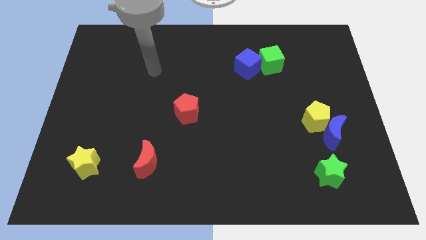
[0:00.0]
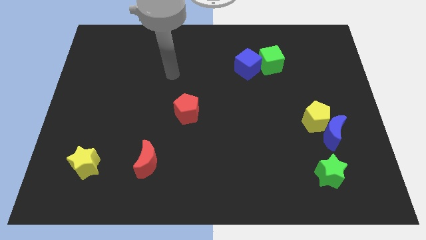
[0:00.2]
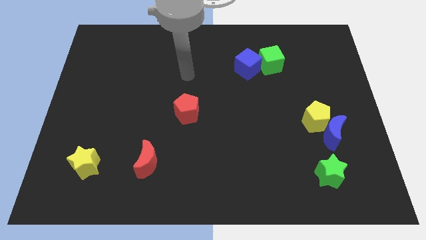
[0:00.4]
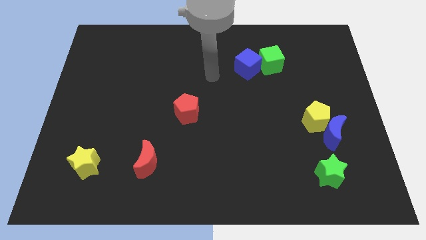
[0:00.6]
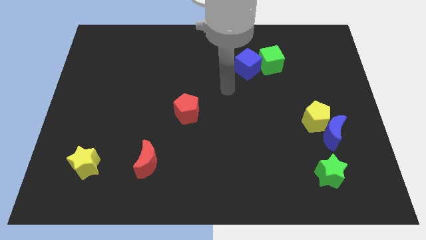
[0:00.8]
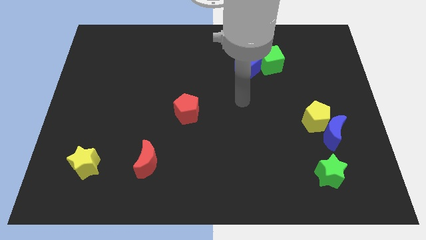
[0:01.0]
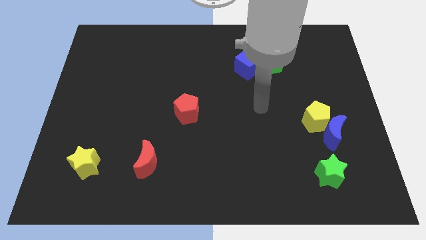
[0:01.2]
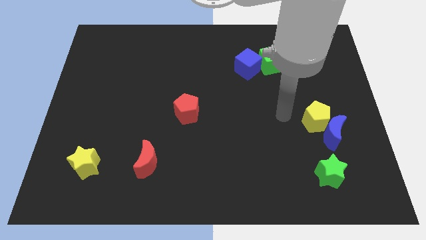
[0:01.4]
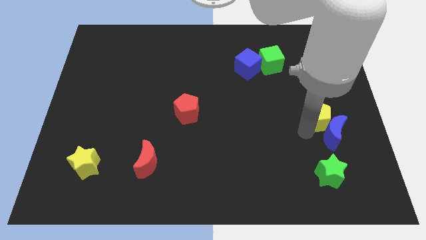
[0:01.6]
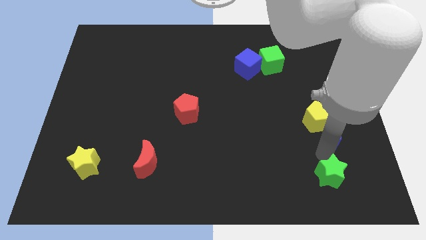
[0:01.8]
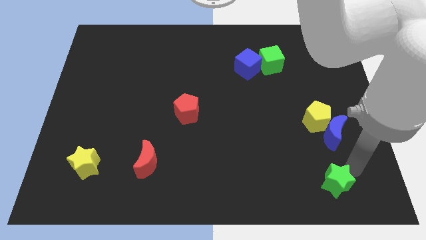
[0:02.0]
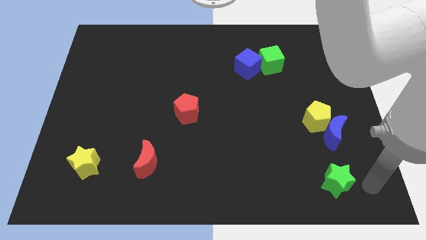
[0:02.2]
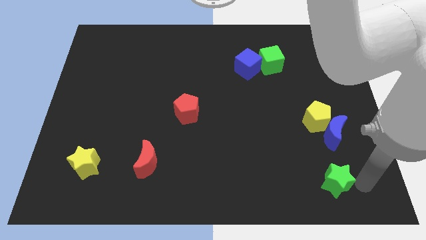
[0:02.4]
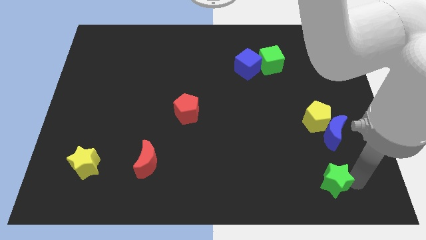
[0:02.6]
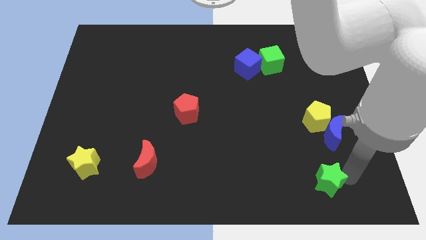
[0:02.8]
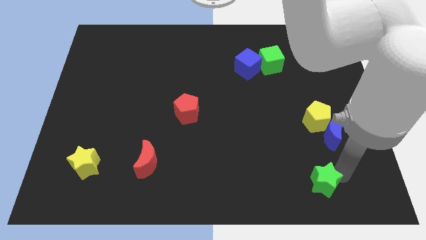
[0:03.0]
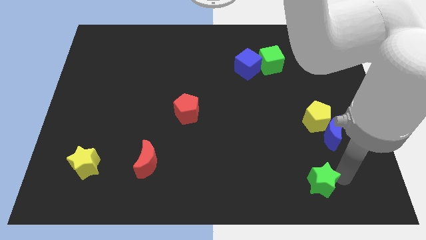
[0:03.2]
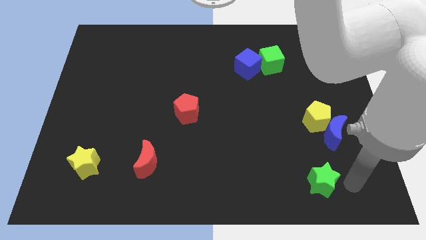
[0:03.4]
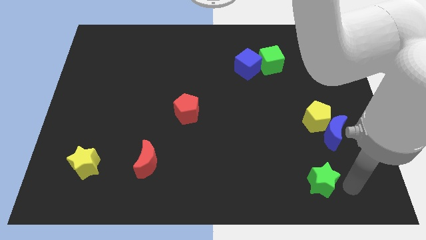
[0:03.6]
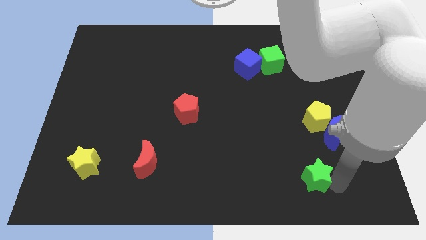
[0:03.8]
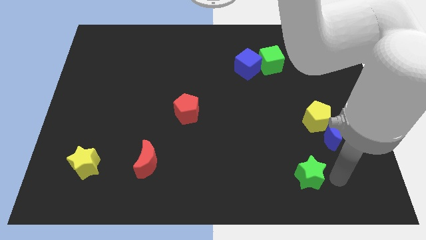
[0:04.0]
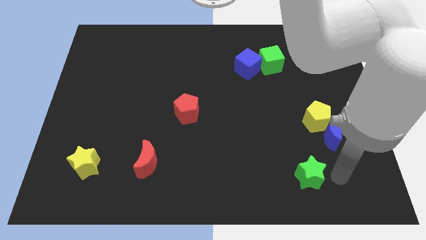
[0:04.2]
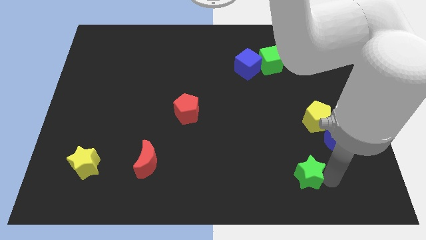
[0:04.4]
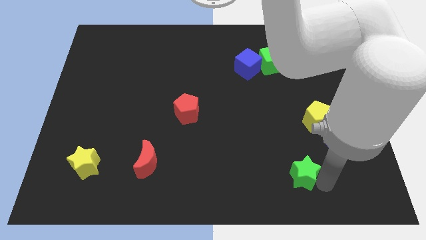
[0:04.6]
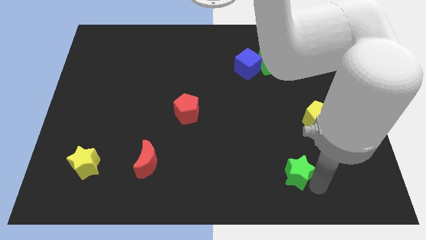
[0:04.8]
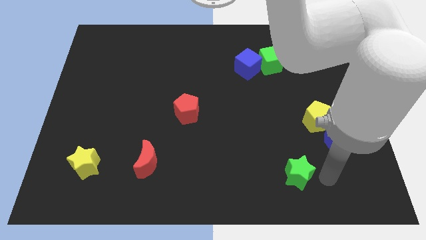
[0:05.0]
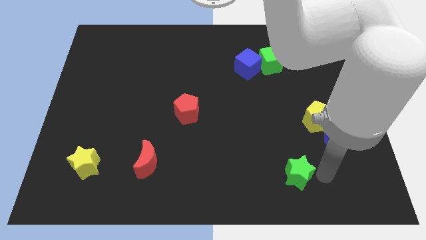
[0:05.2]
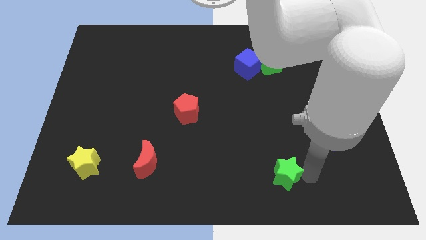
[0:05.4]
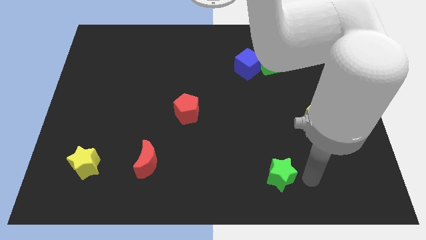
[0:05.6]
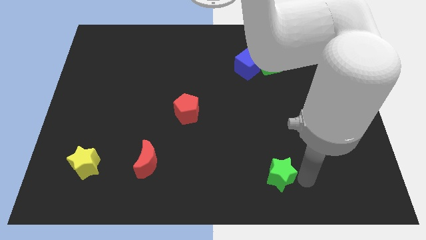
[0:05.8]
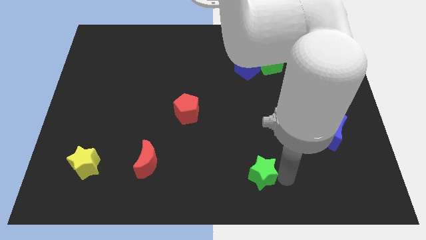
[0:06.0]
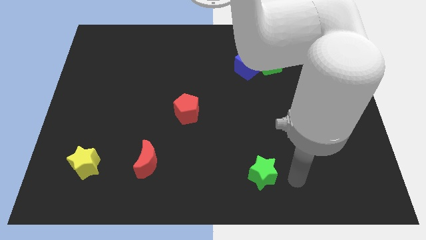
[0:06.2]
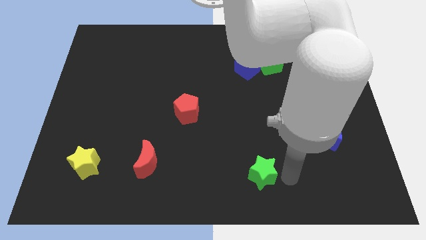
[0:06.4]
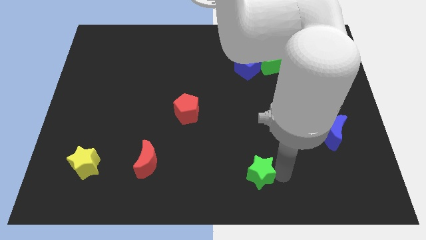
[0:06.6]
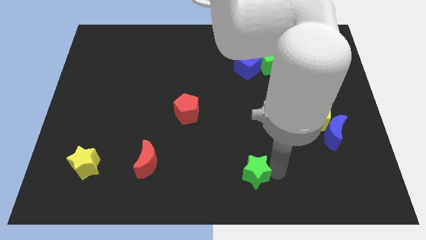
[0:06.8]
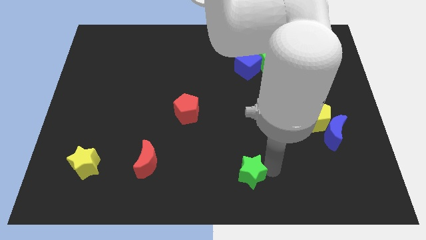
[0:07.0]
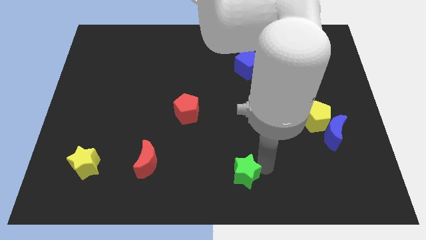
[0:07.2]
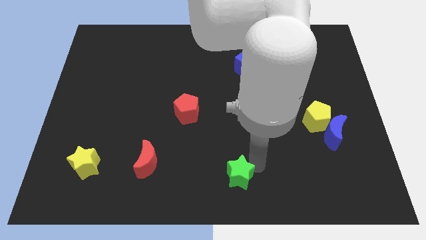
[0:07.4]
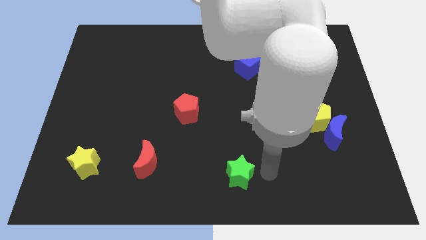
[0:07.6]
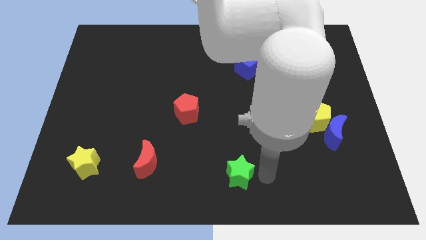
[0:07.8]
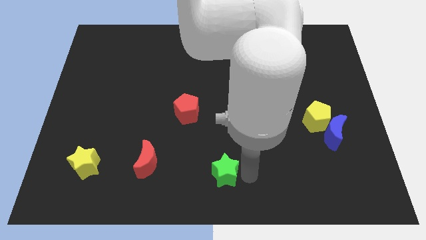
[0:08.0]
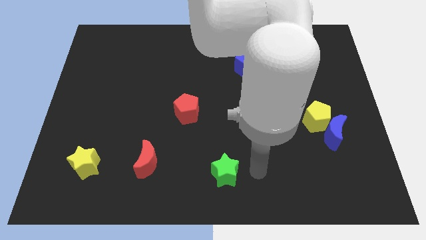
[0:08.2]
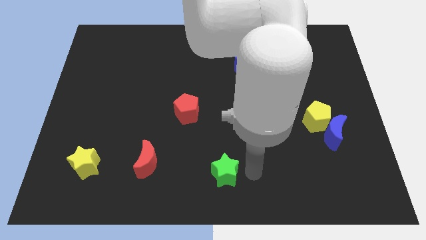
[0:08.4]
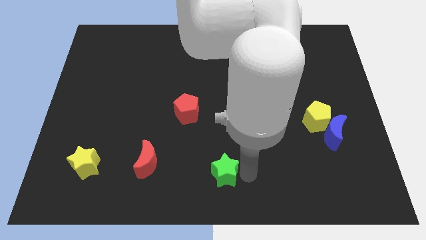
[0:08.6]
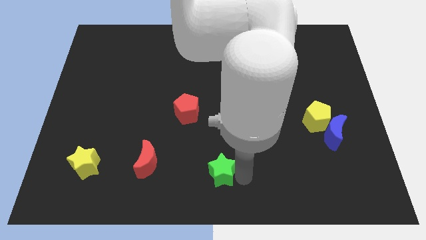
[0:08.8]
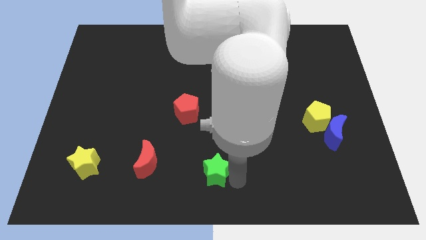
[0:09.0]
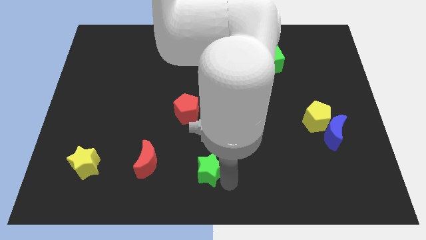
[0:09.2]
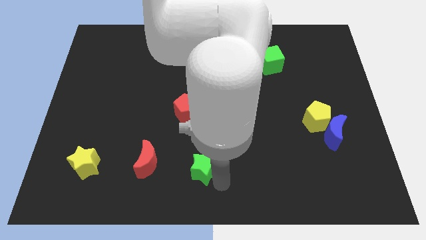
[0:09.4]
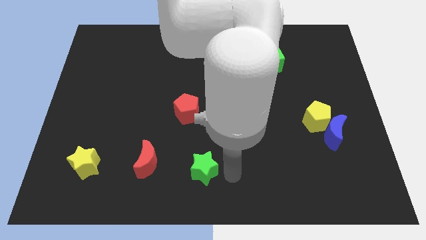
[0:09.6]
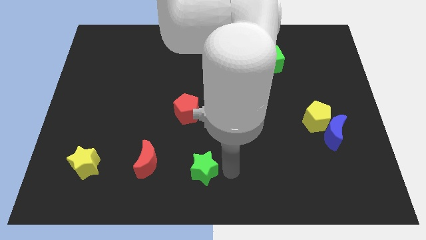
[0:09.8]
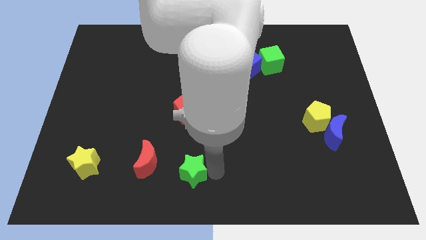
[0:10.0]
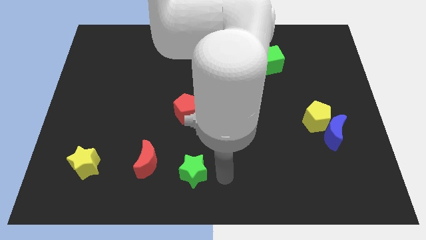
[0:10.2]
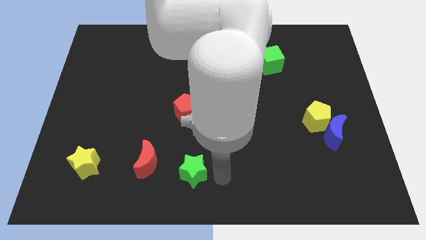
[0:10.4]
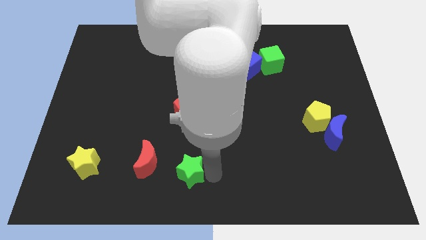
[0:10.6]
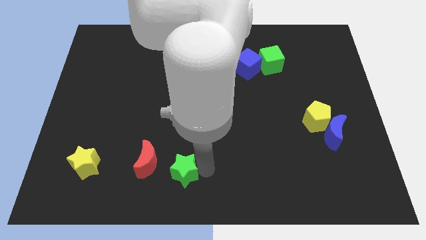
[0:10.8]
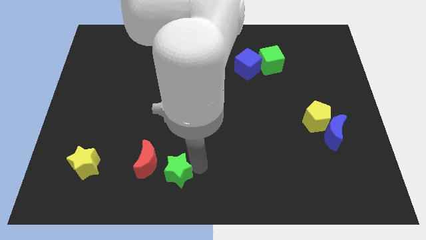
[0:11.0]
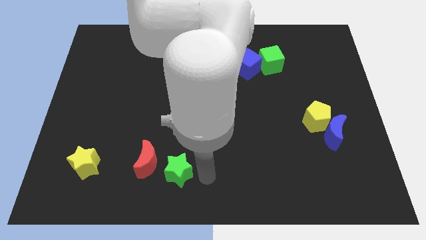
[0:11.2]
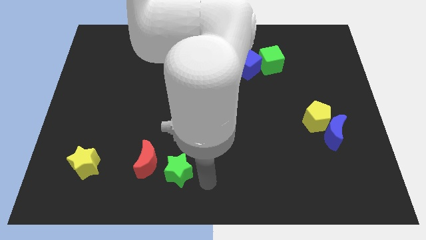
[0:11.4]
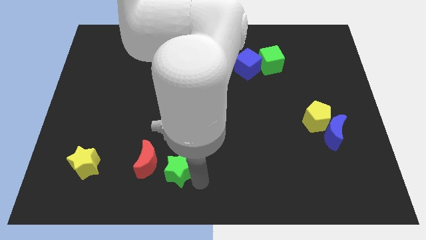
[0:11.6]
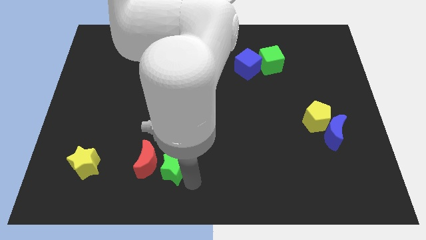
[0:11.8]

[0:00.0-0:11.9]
put the green star towards the red moon
